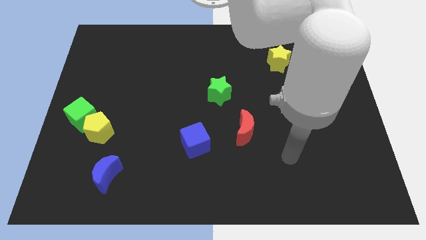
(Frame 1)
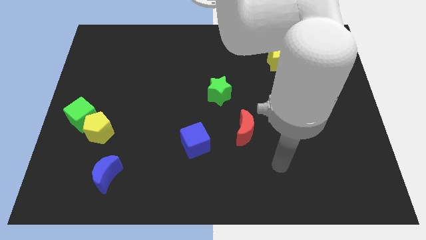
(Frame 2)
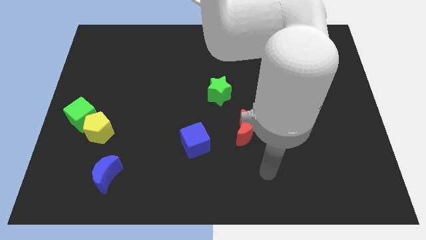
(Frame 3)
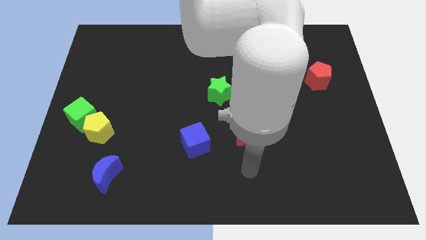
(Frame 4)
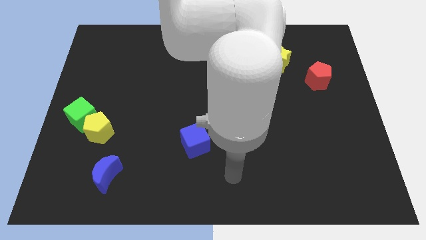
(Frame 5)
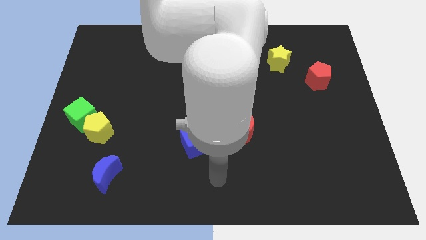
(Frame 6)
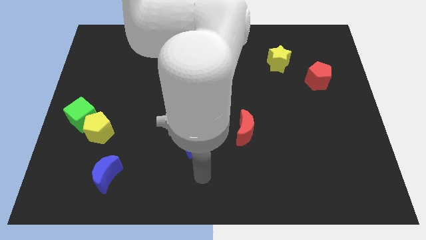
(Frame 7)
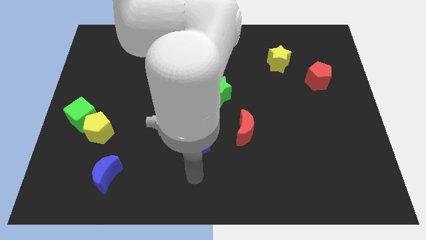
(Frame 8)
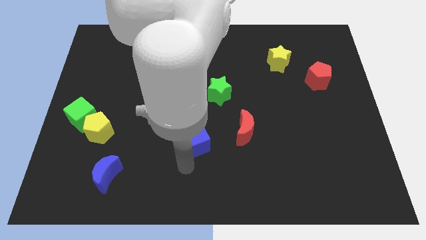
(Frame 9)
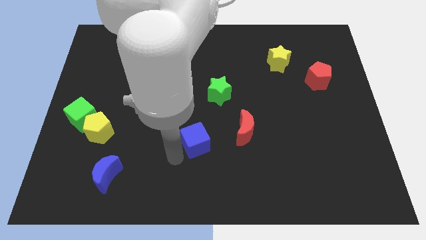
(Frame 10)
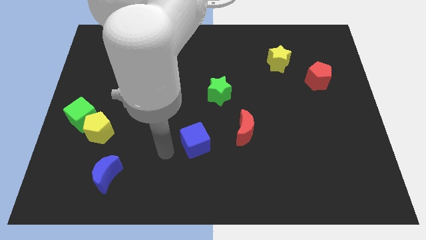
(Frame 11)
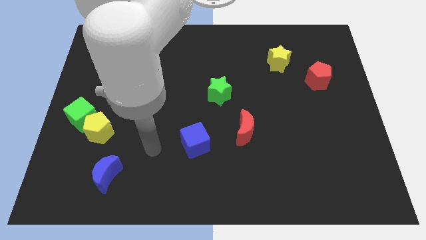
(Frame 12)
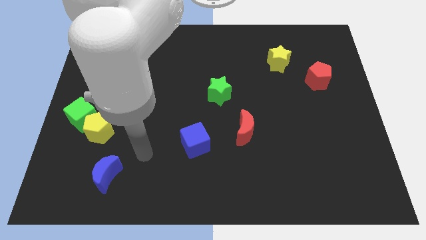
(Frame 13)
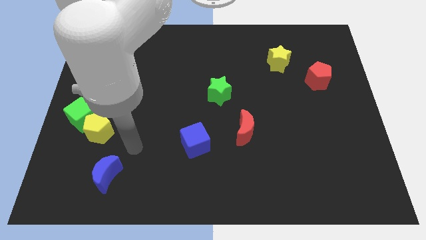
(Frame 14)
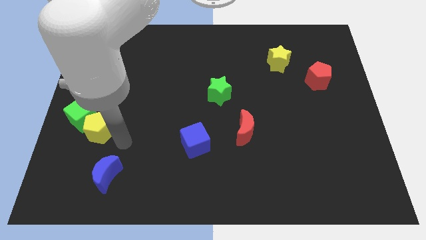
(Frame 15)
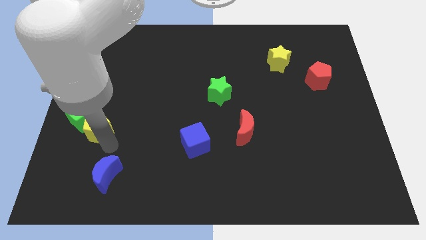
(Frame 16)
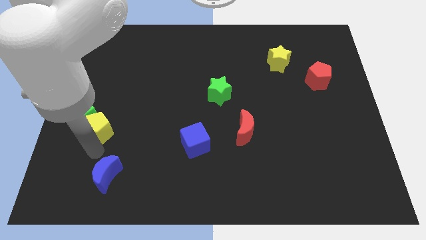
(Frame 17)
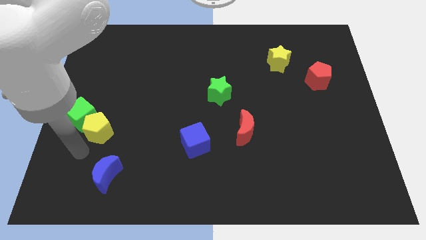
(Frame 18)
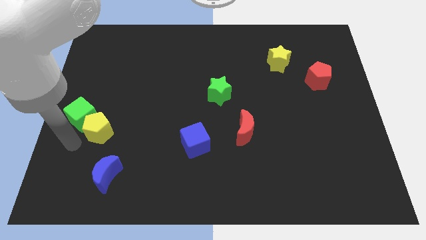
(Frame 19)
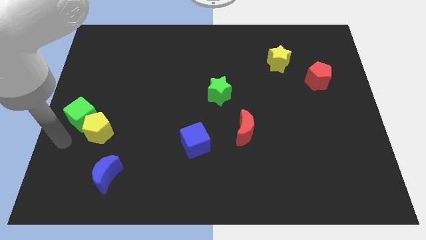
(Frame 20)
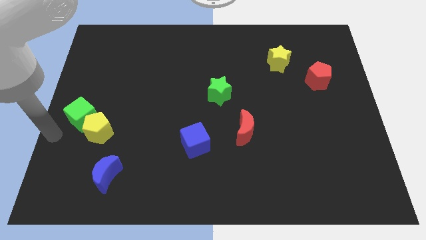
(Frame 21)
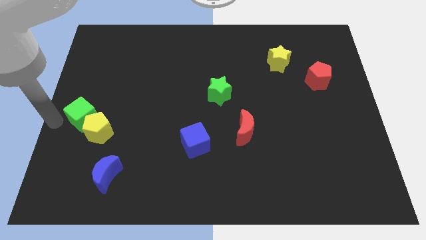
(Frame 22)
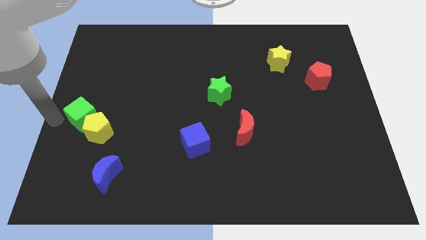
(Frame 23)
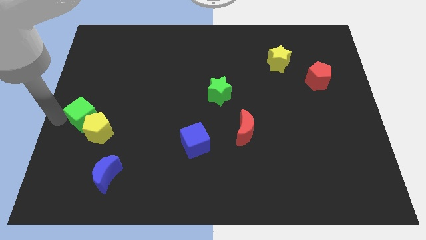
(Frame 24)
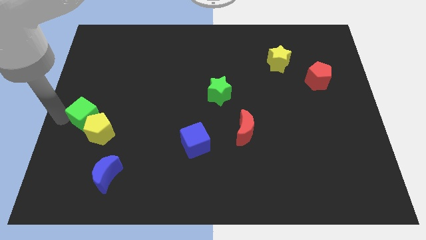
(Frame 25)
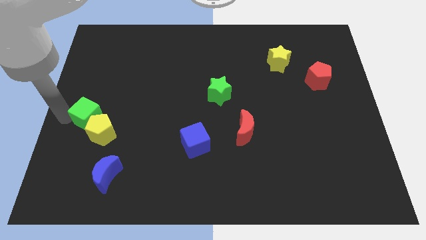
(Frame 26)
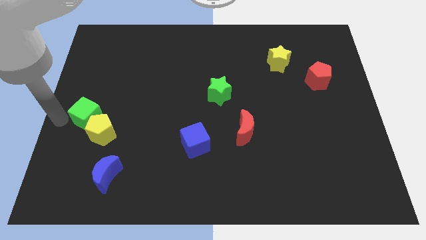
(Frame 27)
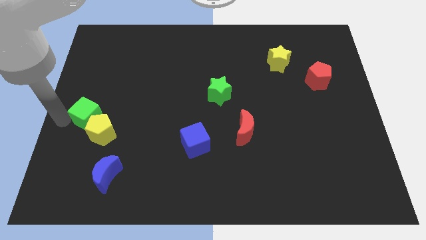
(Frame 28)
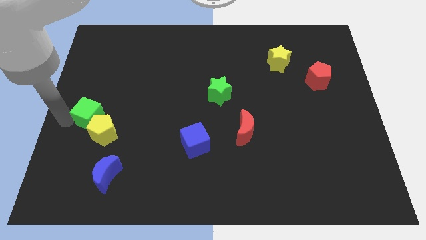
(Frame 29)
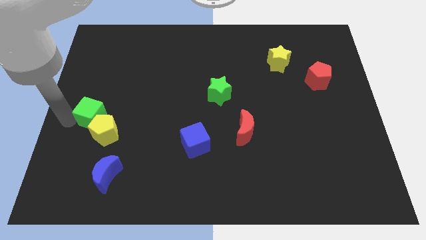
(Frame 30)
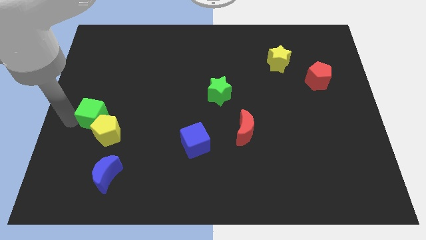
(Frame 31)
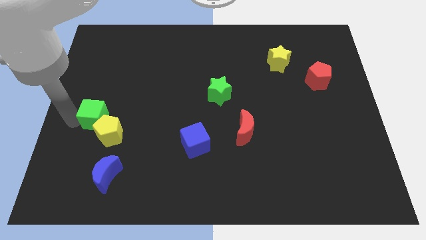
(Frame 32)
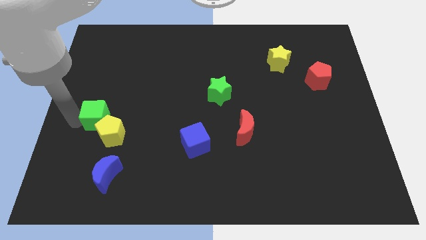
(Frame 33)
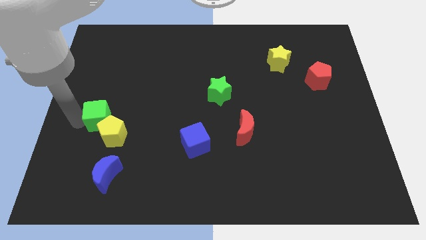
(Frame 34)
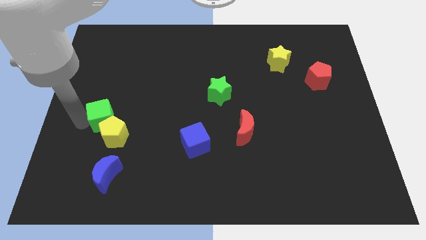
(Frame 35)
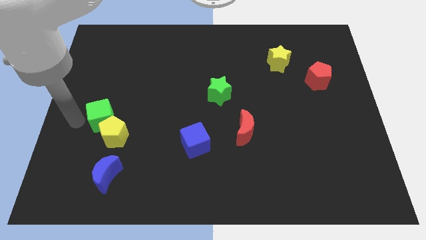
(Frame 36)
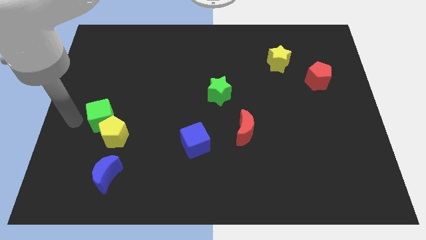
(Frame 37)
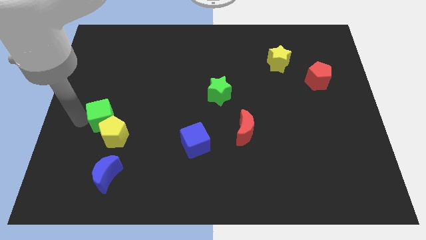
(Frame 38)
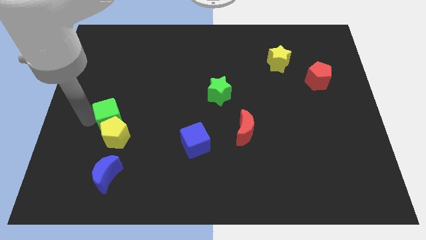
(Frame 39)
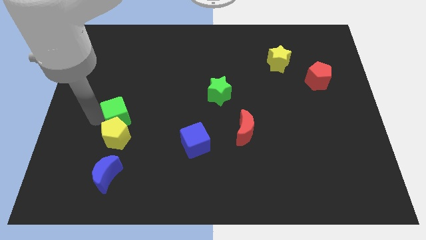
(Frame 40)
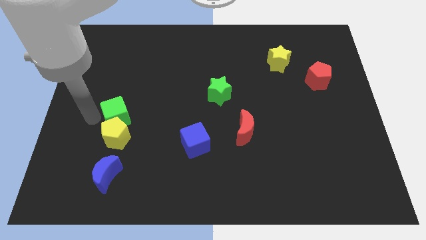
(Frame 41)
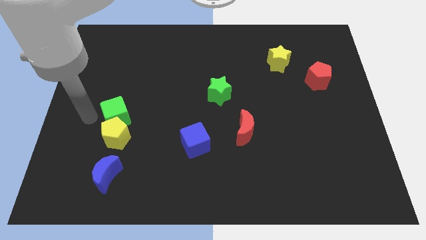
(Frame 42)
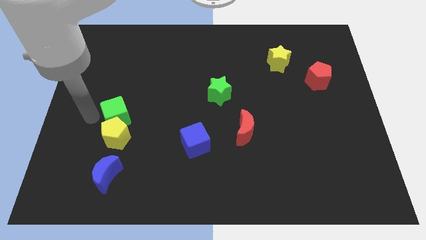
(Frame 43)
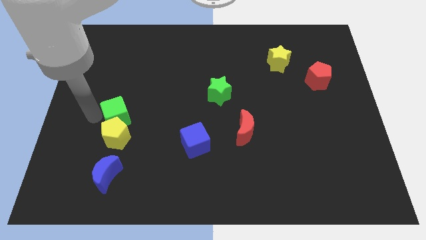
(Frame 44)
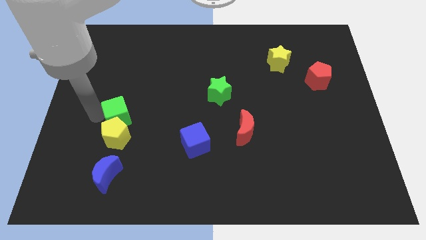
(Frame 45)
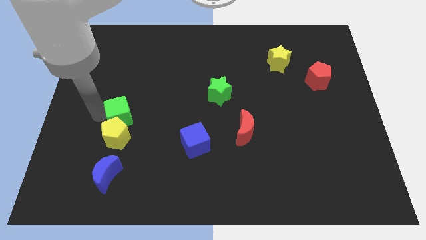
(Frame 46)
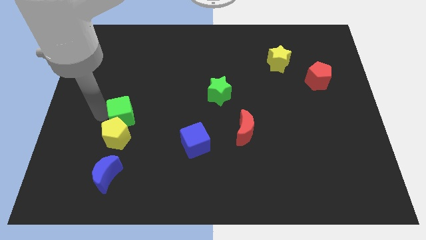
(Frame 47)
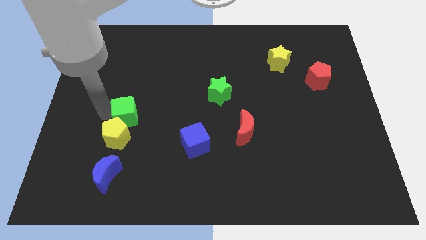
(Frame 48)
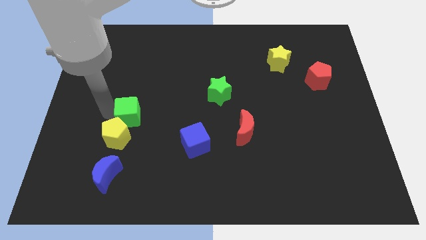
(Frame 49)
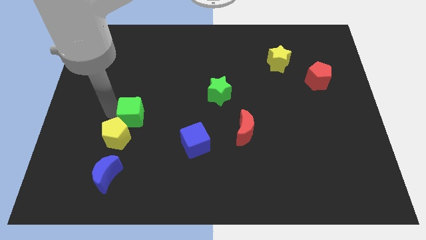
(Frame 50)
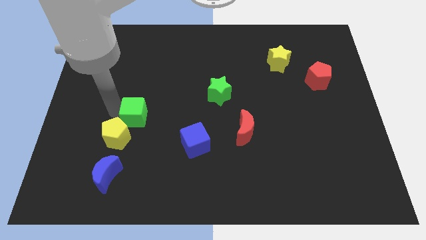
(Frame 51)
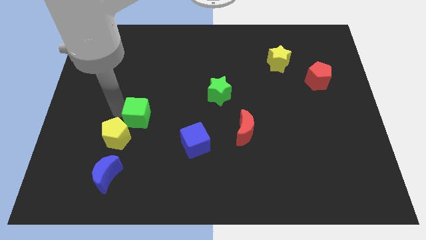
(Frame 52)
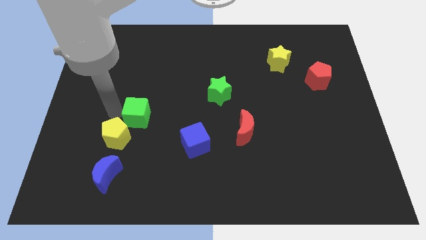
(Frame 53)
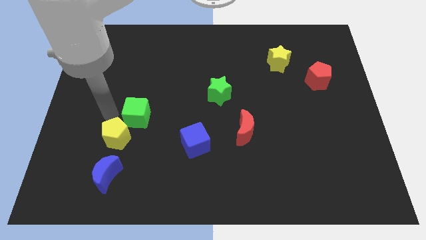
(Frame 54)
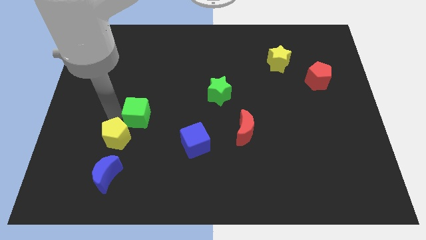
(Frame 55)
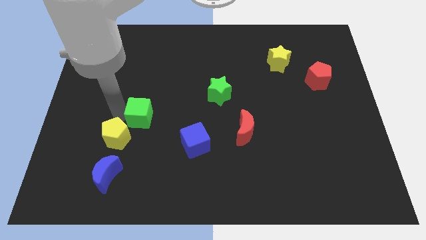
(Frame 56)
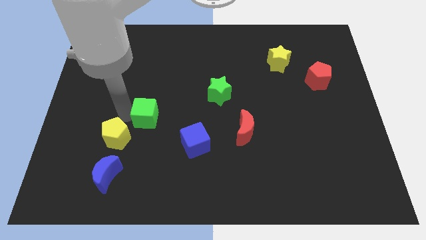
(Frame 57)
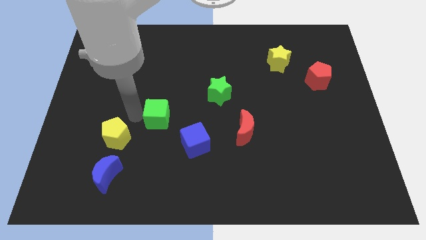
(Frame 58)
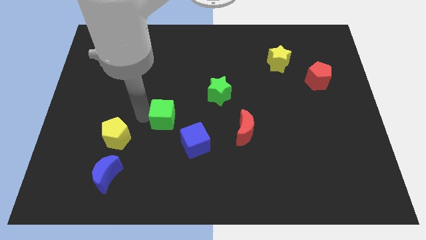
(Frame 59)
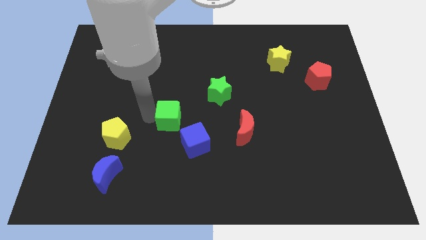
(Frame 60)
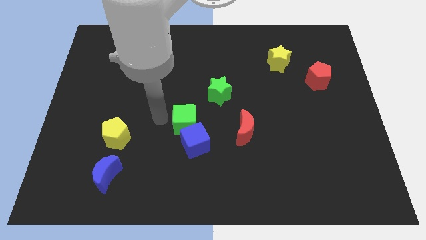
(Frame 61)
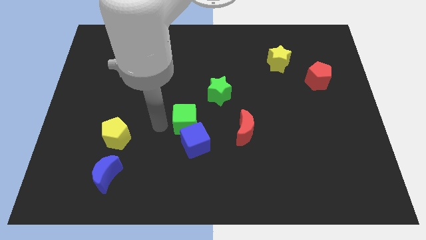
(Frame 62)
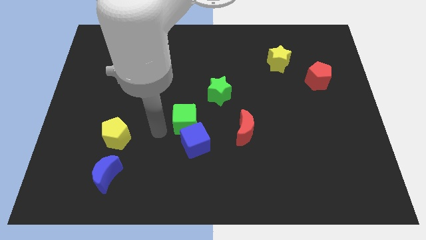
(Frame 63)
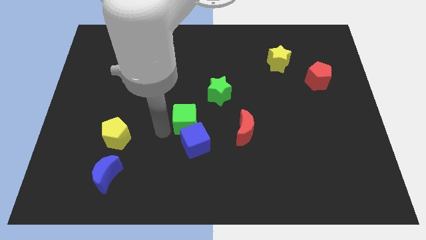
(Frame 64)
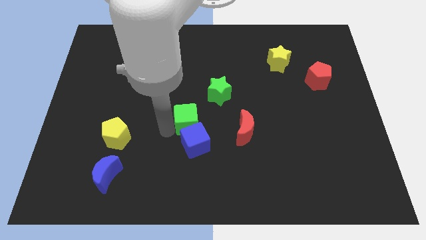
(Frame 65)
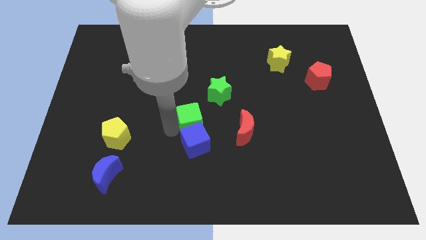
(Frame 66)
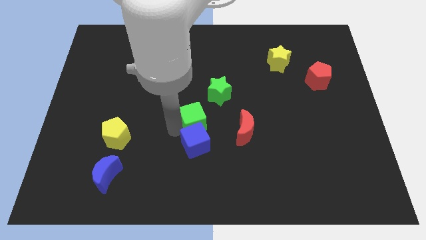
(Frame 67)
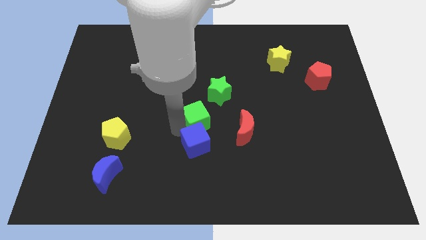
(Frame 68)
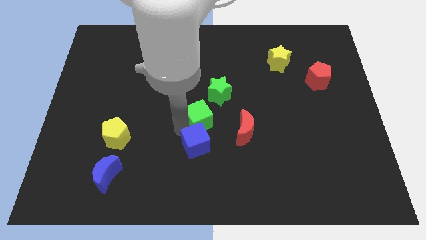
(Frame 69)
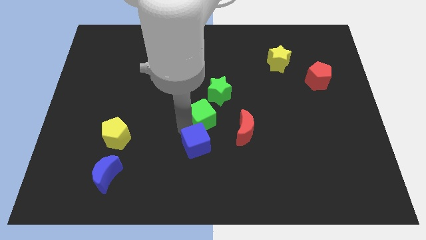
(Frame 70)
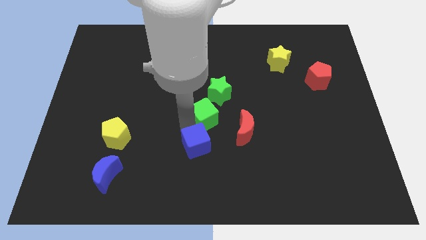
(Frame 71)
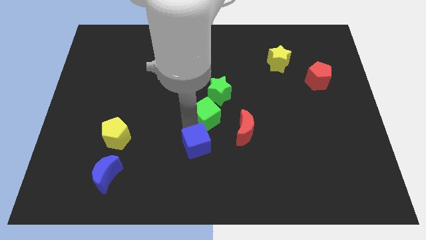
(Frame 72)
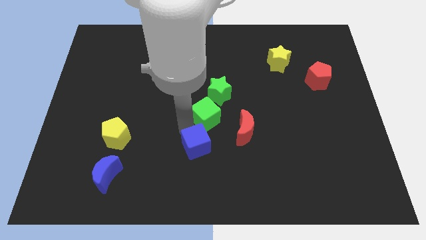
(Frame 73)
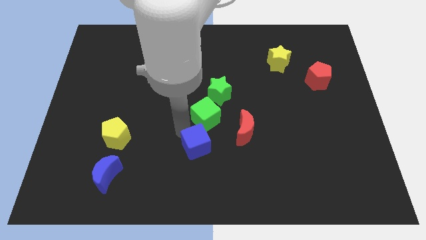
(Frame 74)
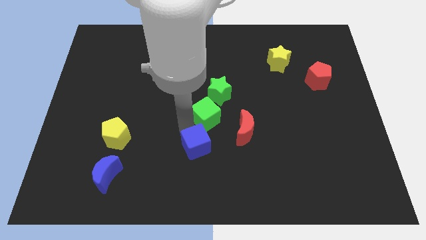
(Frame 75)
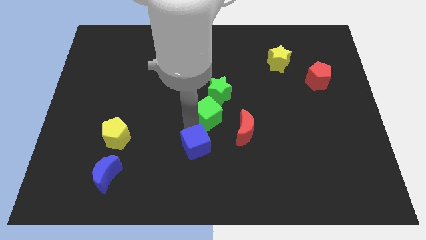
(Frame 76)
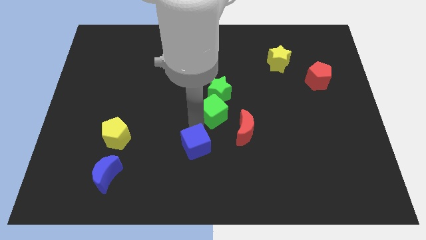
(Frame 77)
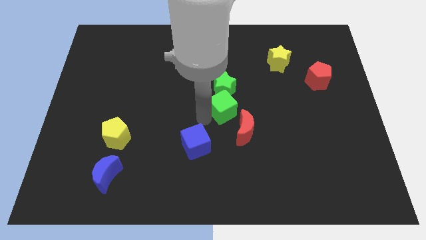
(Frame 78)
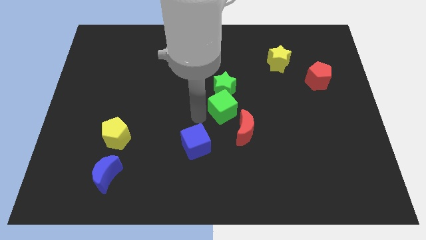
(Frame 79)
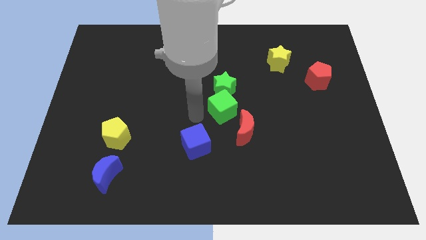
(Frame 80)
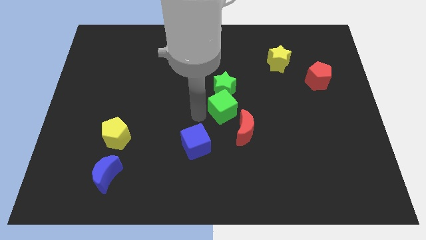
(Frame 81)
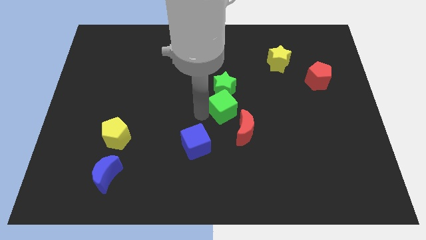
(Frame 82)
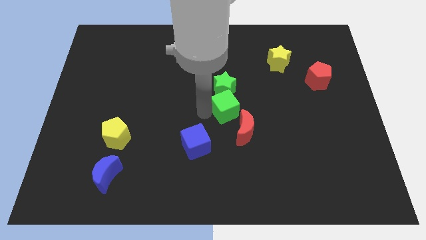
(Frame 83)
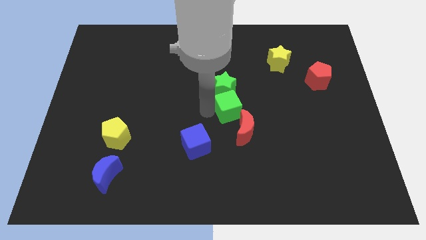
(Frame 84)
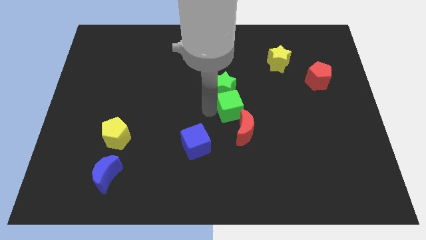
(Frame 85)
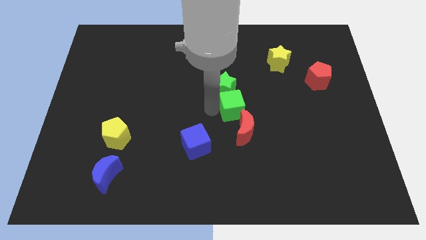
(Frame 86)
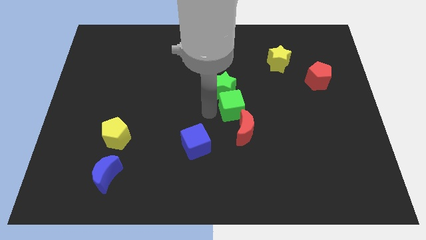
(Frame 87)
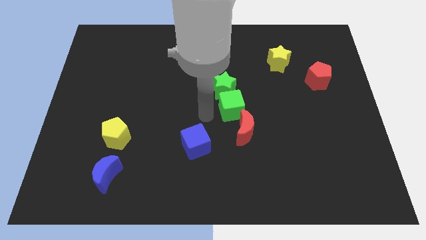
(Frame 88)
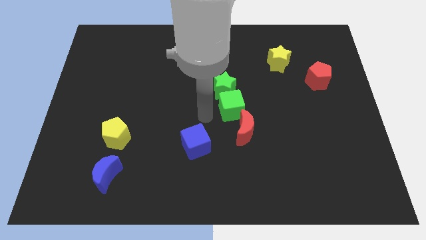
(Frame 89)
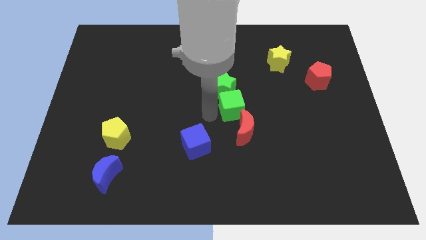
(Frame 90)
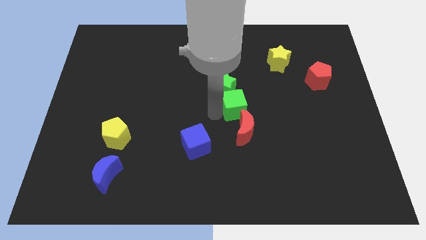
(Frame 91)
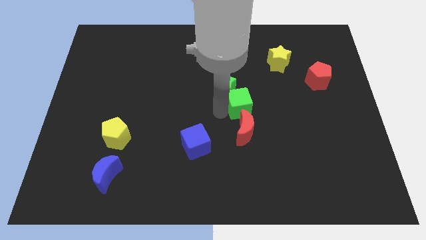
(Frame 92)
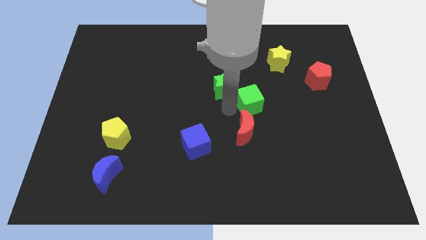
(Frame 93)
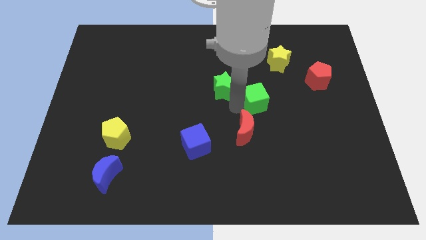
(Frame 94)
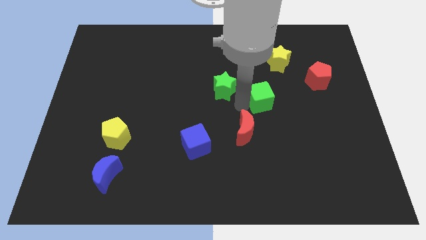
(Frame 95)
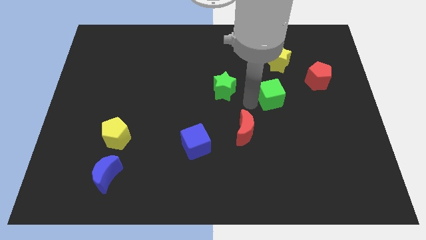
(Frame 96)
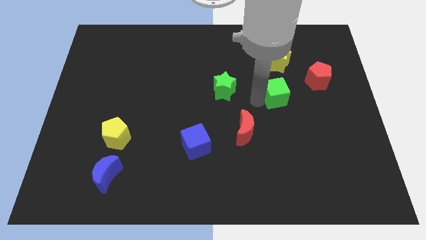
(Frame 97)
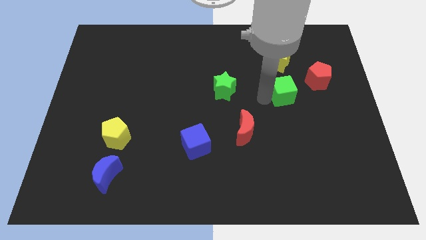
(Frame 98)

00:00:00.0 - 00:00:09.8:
slide the green cube to the bottom left of the red pentagon
